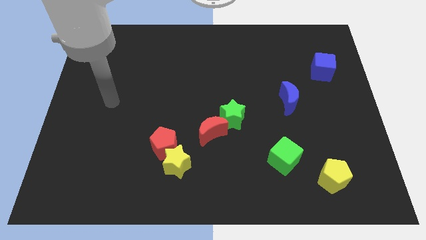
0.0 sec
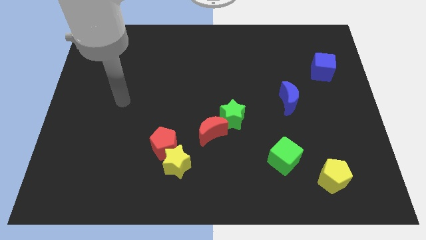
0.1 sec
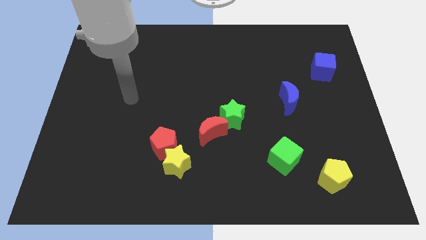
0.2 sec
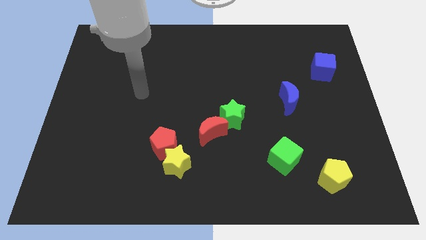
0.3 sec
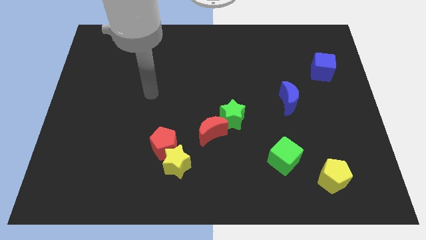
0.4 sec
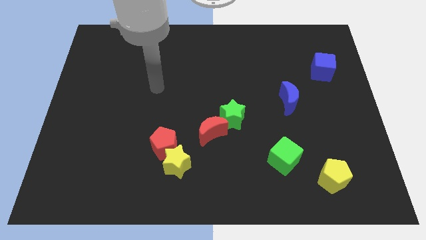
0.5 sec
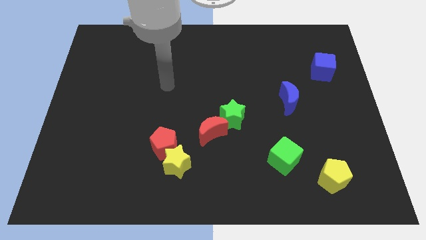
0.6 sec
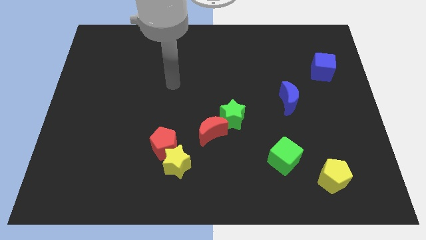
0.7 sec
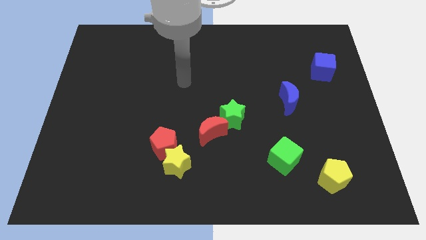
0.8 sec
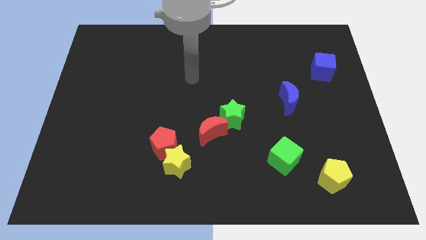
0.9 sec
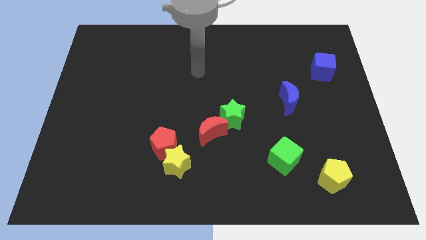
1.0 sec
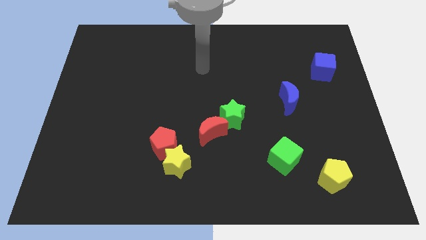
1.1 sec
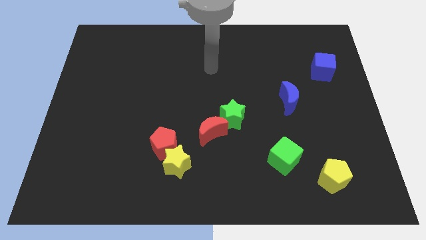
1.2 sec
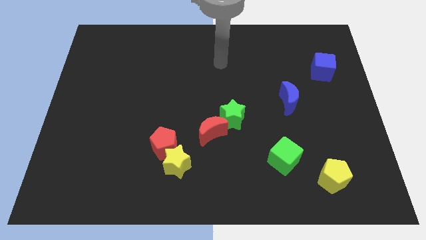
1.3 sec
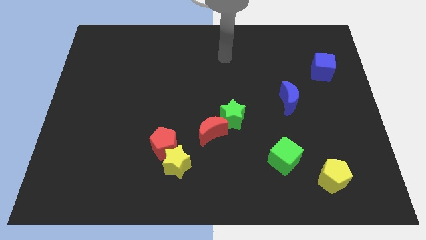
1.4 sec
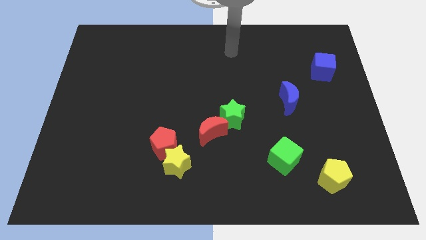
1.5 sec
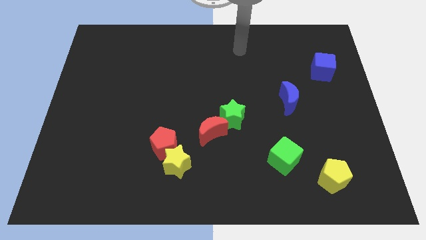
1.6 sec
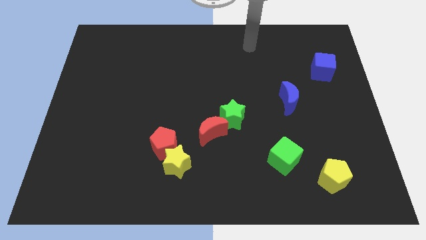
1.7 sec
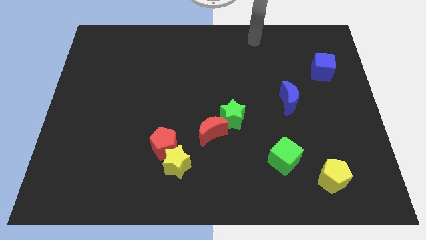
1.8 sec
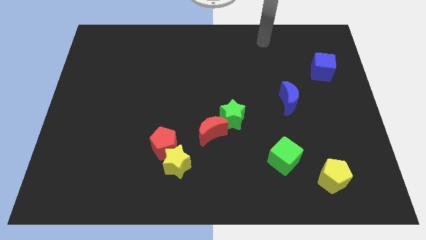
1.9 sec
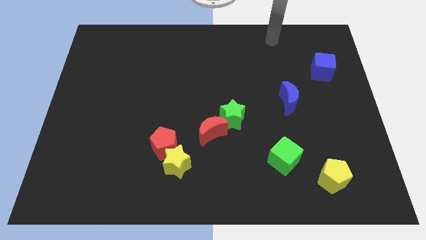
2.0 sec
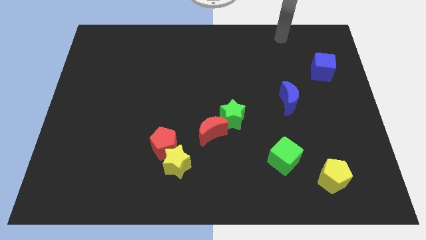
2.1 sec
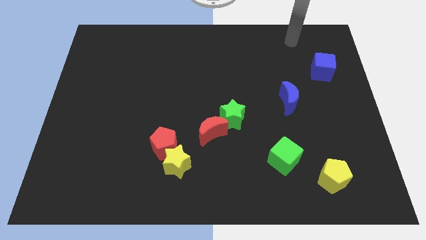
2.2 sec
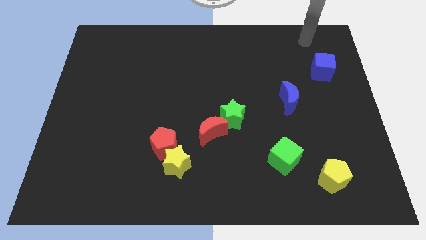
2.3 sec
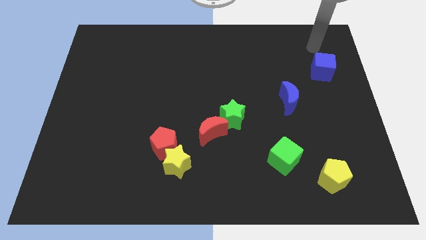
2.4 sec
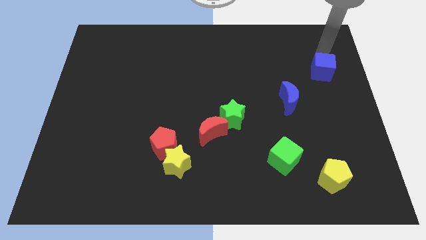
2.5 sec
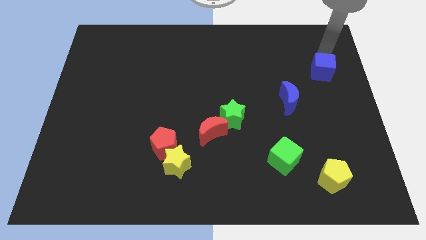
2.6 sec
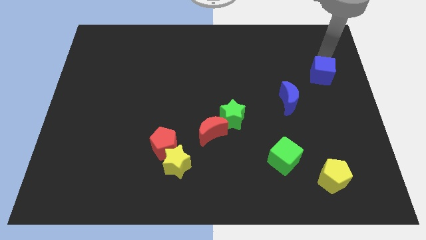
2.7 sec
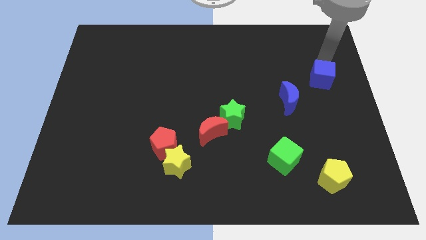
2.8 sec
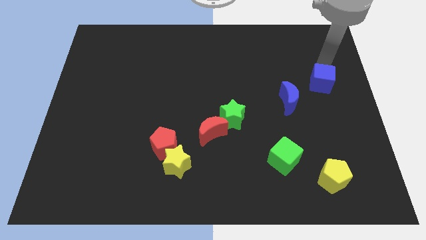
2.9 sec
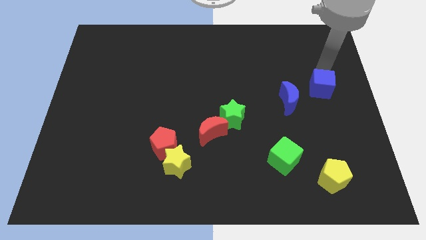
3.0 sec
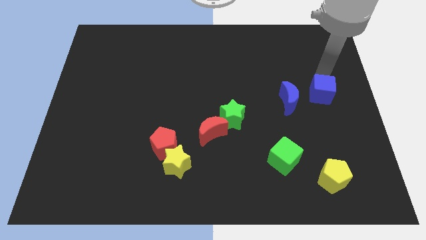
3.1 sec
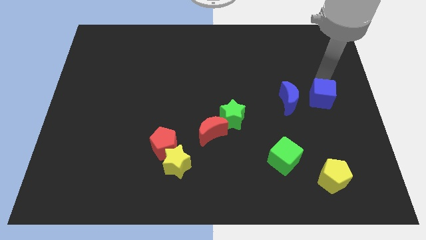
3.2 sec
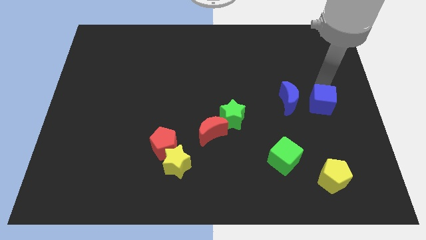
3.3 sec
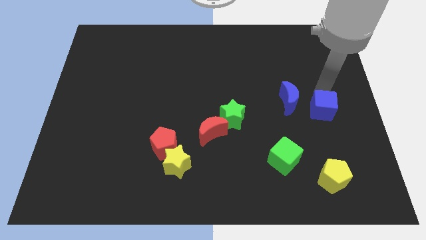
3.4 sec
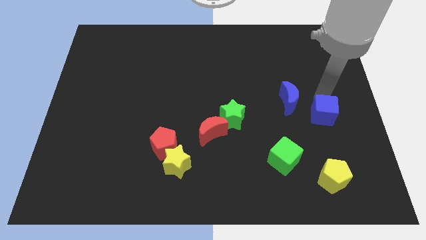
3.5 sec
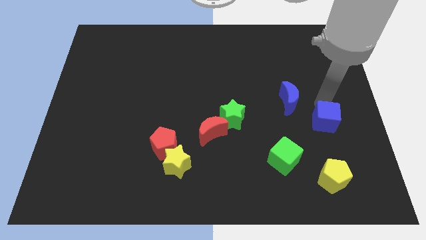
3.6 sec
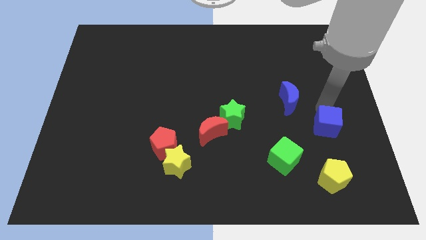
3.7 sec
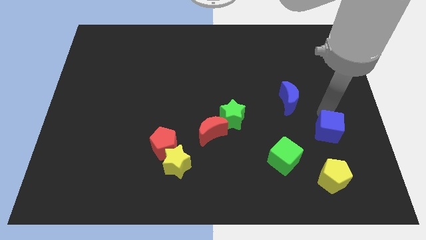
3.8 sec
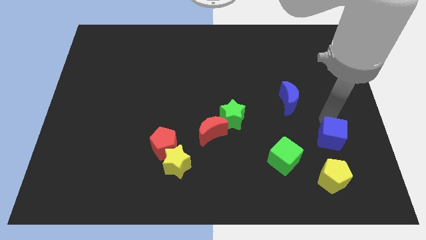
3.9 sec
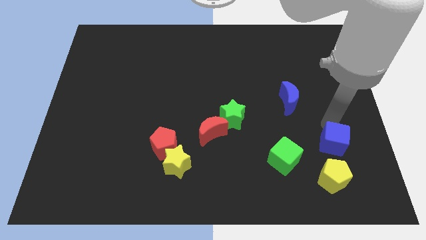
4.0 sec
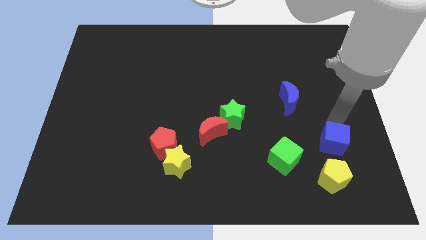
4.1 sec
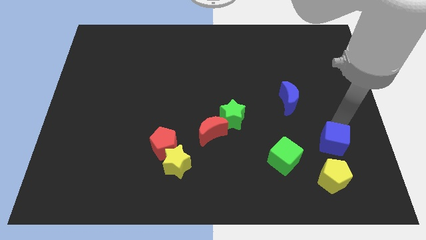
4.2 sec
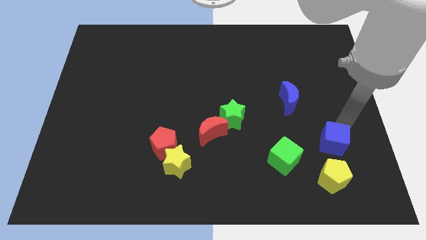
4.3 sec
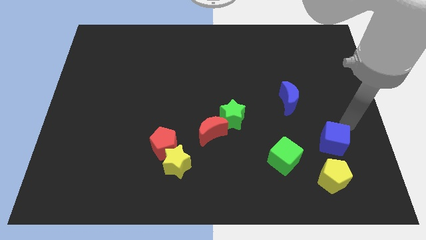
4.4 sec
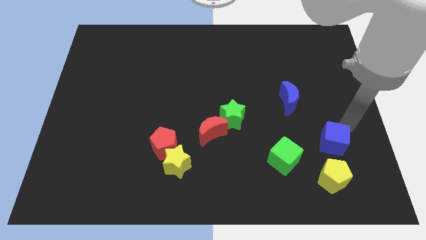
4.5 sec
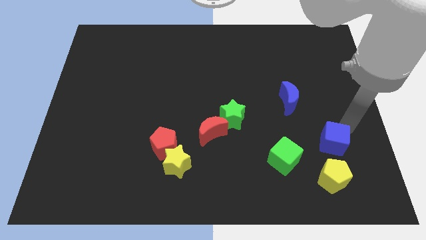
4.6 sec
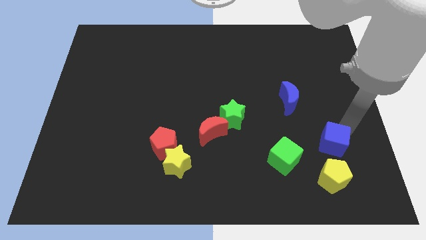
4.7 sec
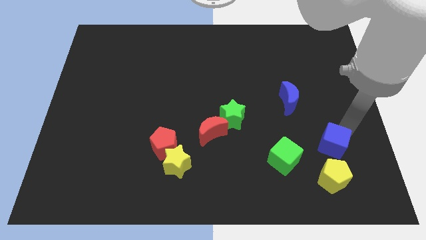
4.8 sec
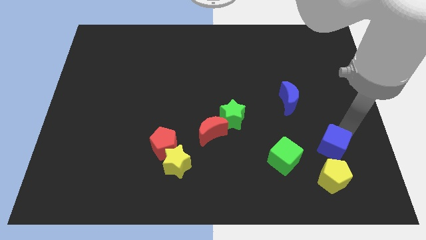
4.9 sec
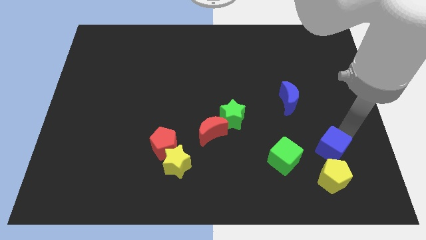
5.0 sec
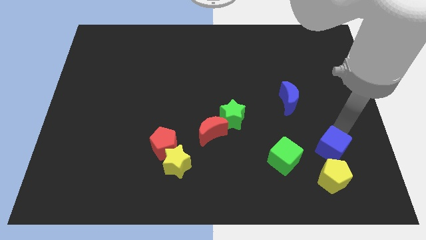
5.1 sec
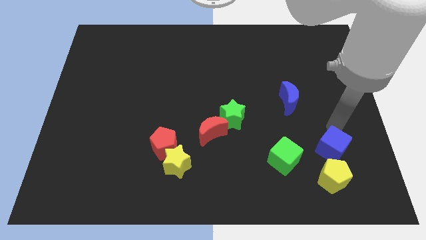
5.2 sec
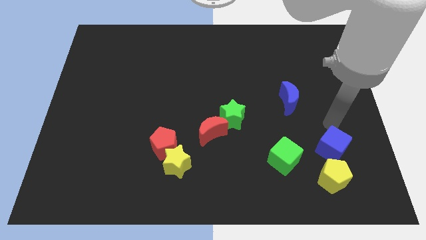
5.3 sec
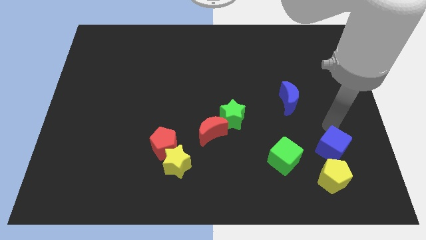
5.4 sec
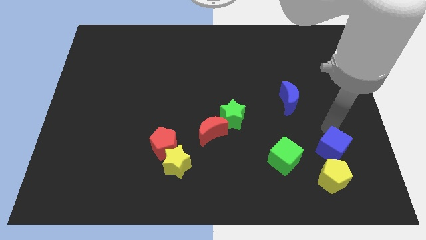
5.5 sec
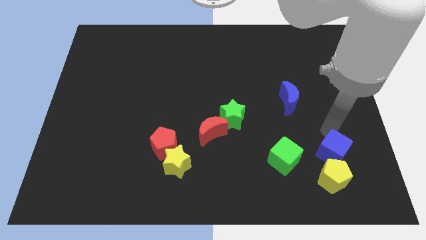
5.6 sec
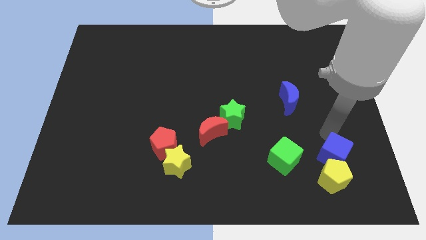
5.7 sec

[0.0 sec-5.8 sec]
move the blue cube towards the yellow pentagon

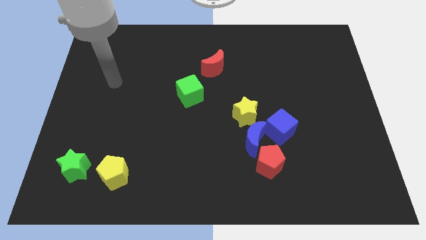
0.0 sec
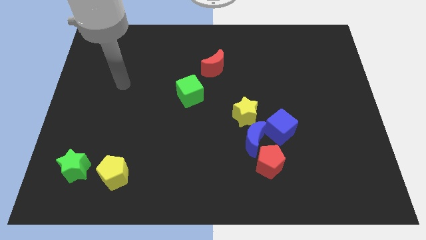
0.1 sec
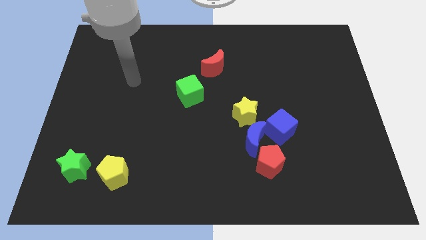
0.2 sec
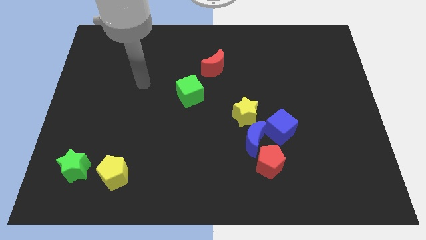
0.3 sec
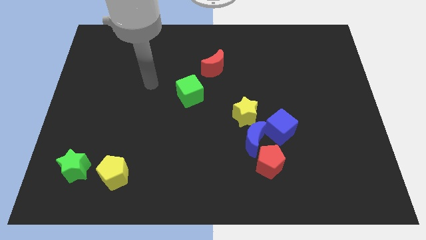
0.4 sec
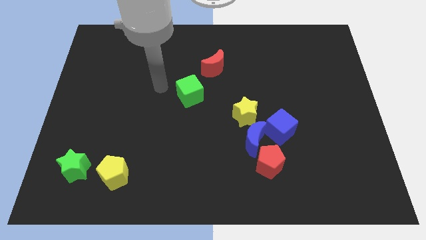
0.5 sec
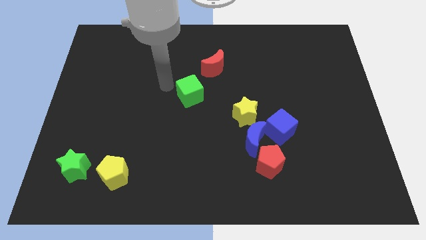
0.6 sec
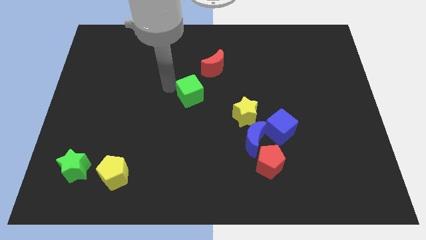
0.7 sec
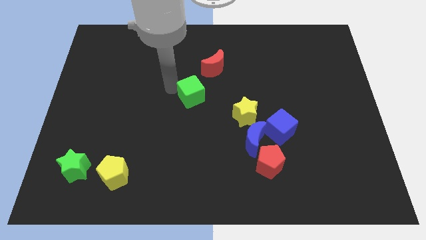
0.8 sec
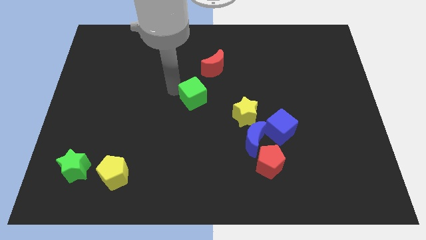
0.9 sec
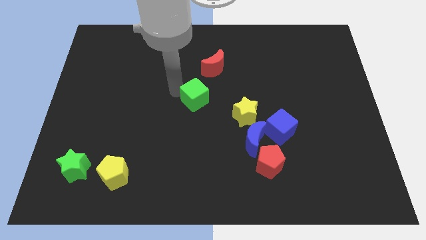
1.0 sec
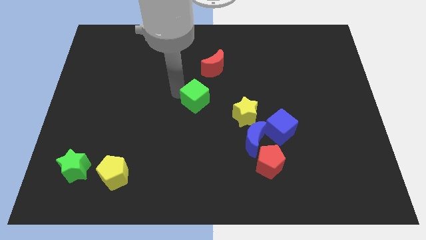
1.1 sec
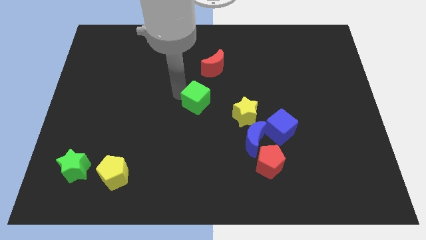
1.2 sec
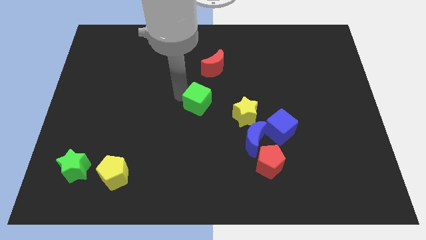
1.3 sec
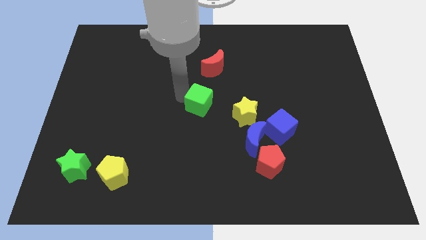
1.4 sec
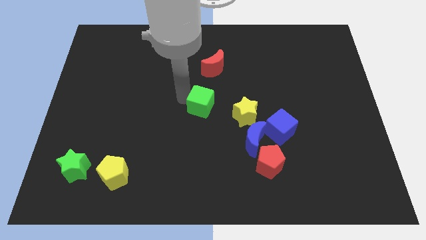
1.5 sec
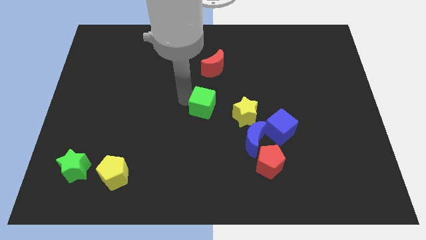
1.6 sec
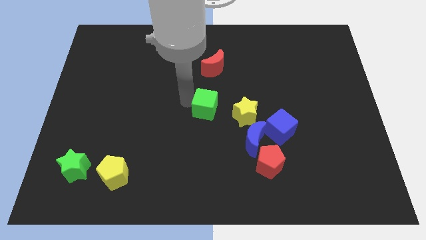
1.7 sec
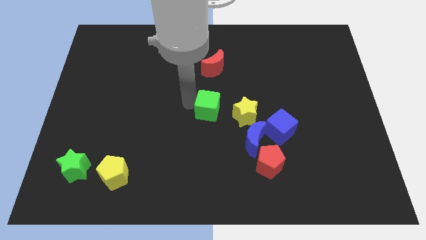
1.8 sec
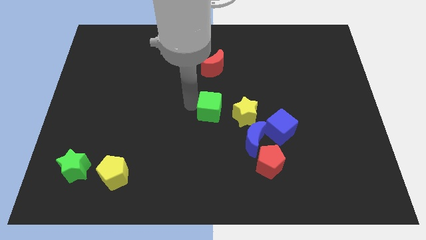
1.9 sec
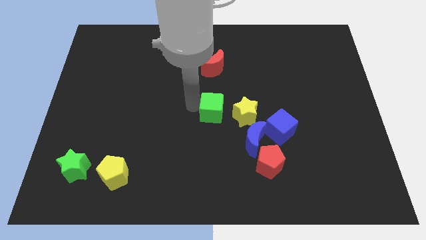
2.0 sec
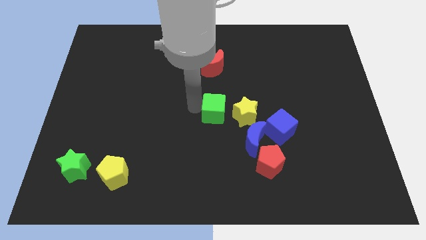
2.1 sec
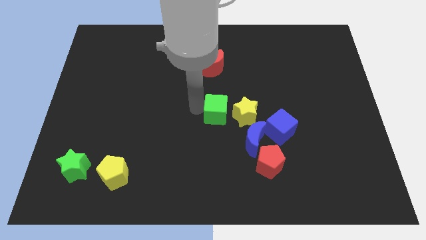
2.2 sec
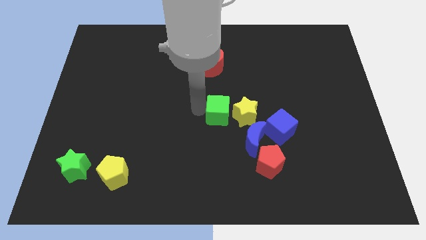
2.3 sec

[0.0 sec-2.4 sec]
put the green cube to the yellow star
